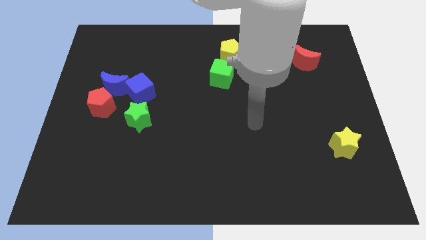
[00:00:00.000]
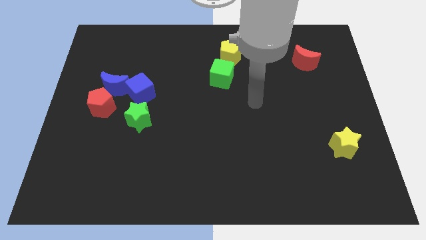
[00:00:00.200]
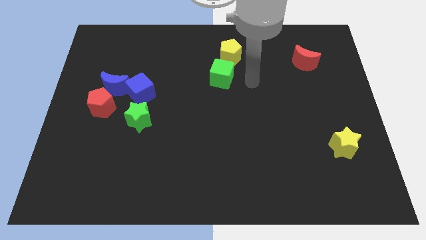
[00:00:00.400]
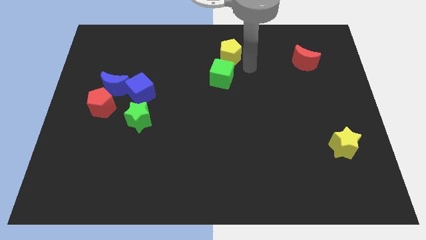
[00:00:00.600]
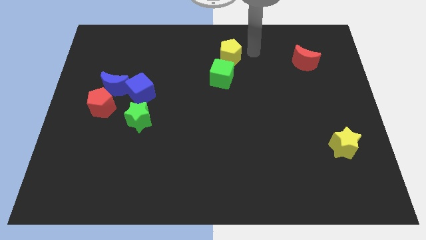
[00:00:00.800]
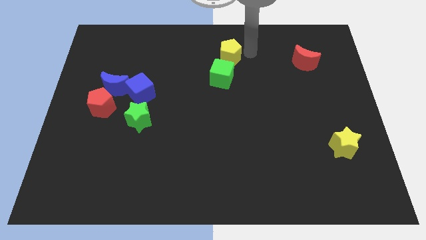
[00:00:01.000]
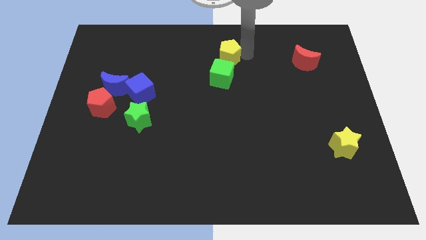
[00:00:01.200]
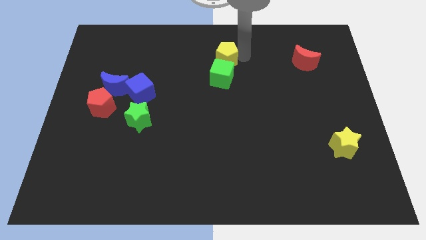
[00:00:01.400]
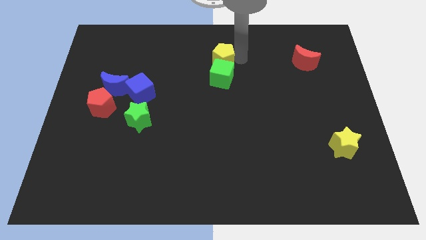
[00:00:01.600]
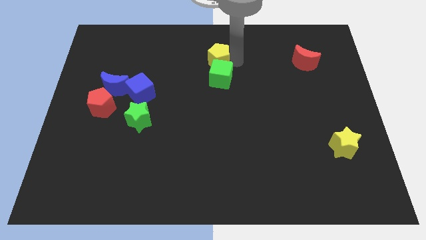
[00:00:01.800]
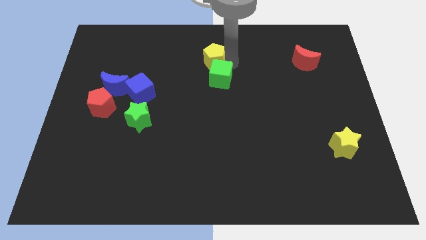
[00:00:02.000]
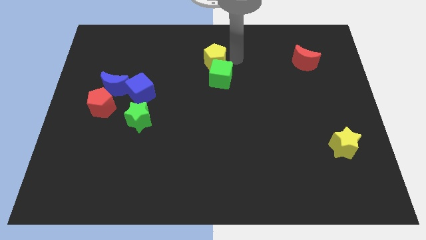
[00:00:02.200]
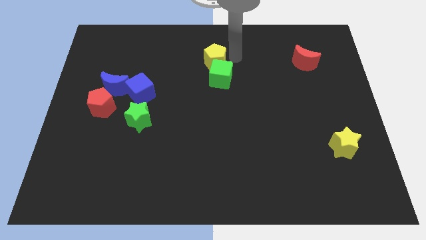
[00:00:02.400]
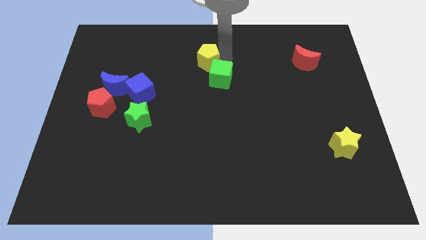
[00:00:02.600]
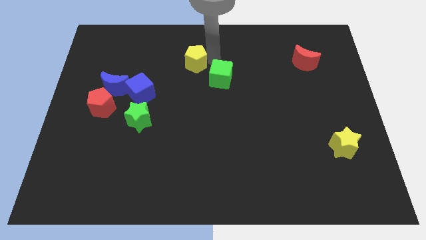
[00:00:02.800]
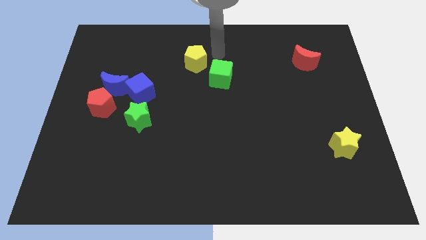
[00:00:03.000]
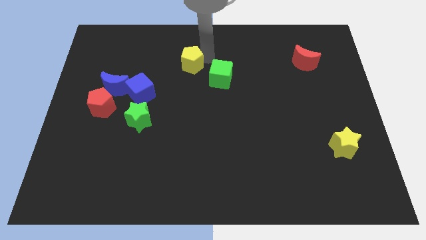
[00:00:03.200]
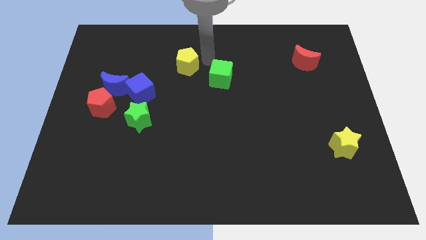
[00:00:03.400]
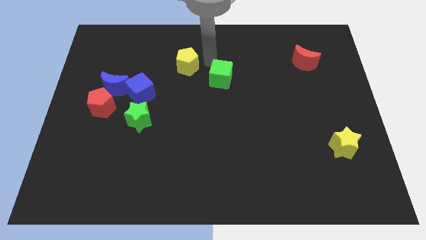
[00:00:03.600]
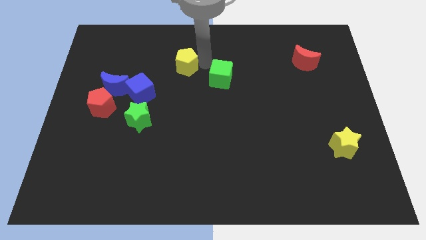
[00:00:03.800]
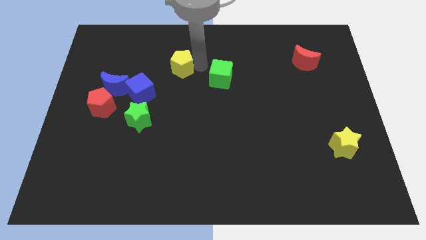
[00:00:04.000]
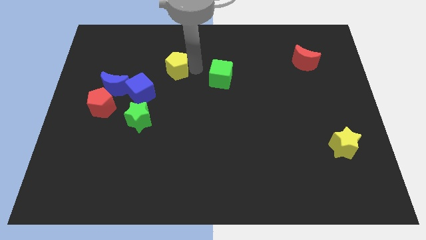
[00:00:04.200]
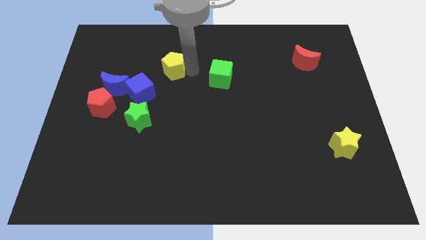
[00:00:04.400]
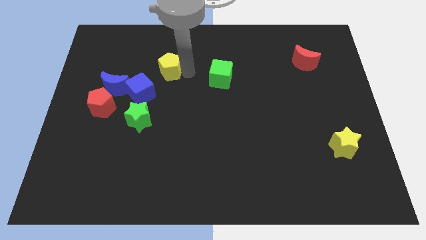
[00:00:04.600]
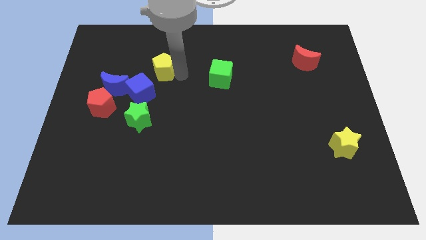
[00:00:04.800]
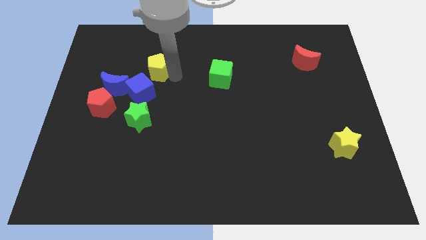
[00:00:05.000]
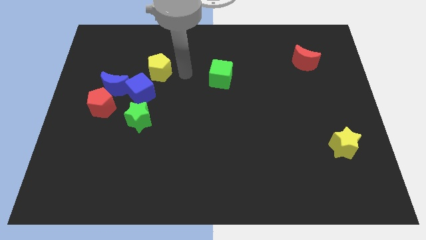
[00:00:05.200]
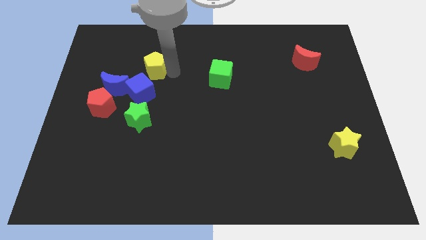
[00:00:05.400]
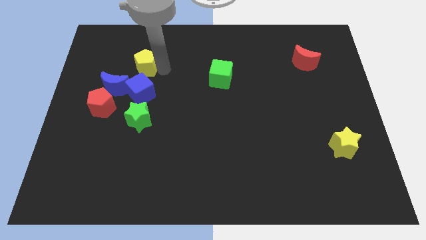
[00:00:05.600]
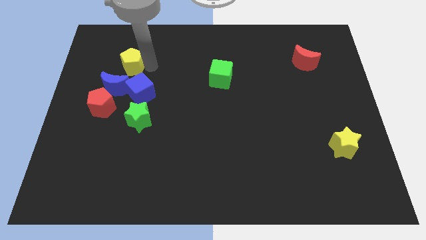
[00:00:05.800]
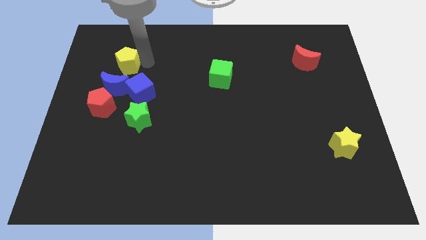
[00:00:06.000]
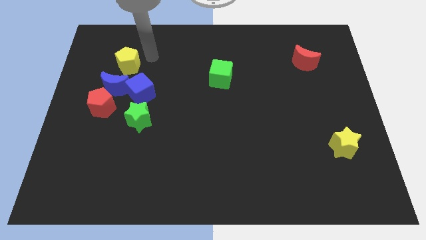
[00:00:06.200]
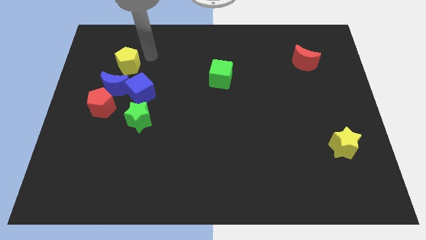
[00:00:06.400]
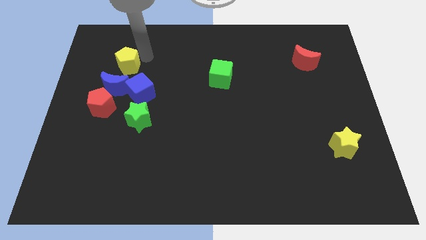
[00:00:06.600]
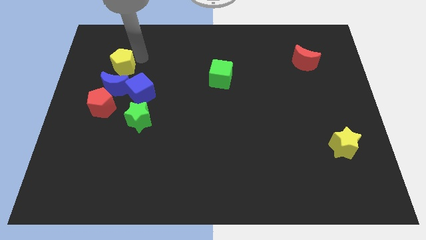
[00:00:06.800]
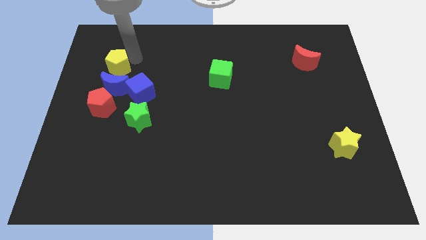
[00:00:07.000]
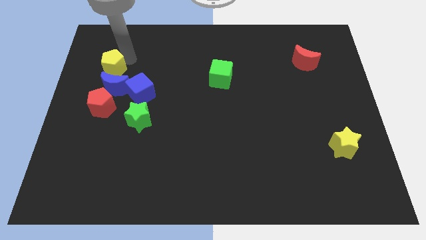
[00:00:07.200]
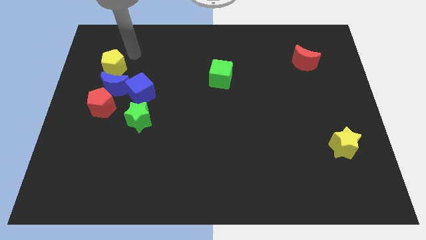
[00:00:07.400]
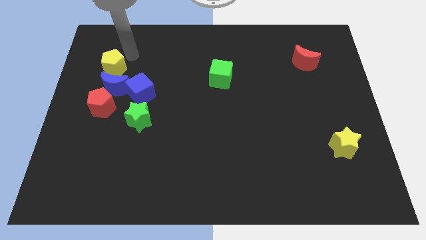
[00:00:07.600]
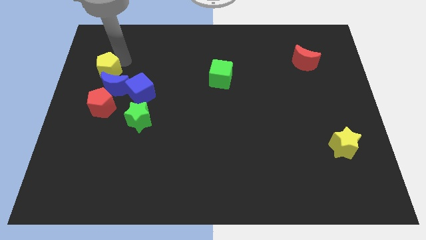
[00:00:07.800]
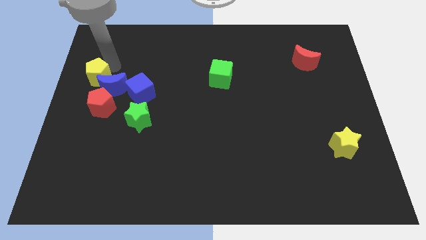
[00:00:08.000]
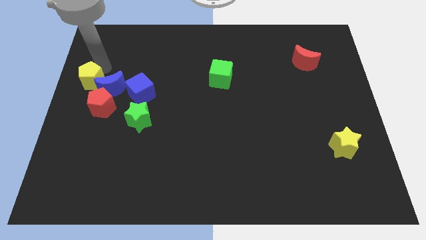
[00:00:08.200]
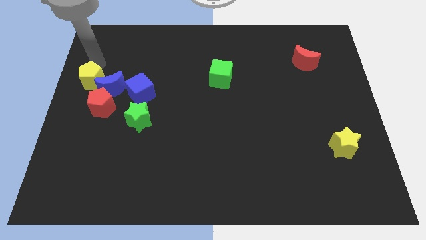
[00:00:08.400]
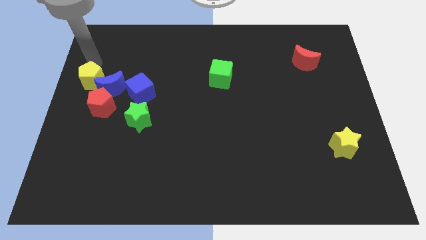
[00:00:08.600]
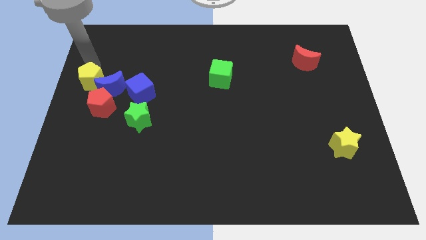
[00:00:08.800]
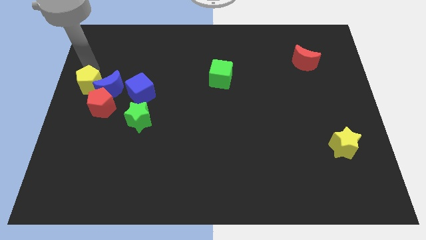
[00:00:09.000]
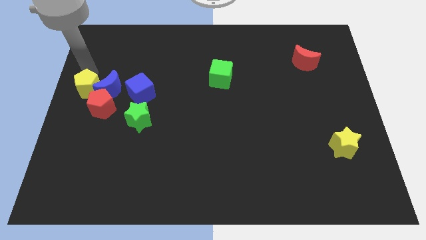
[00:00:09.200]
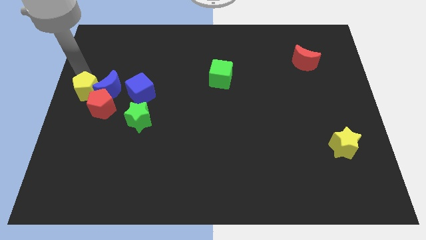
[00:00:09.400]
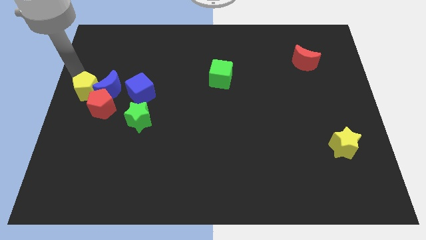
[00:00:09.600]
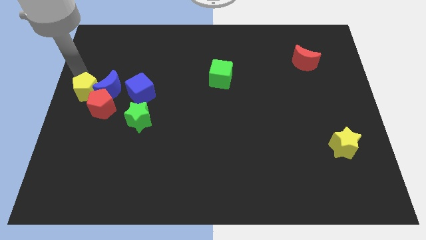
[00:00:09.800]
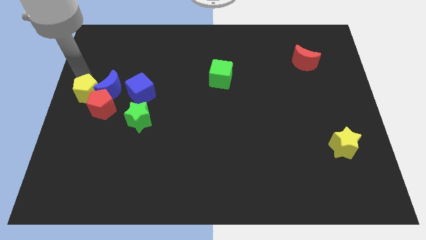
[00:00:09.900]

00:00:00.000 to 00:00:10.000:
put the yellow pentagon to the red pentagon

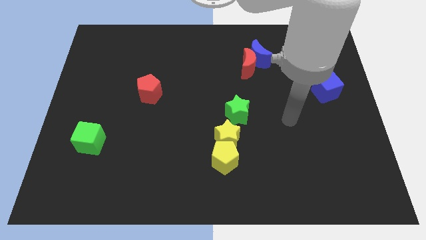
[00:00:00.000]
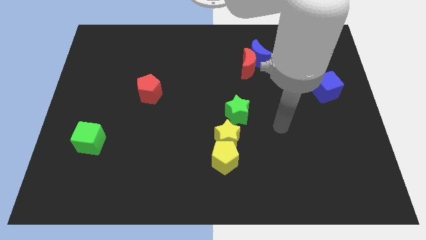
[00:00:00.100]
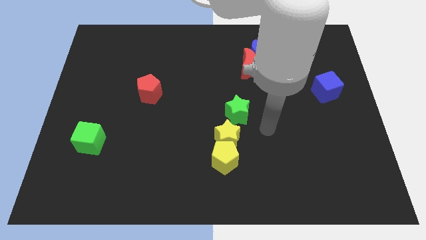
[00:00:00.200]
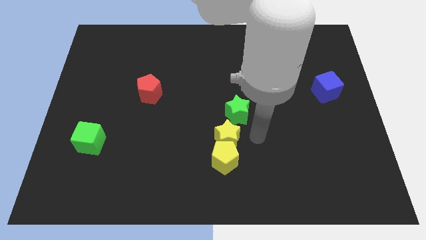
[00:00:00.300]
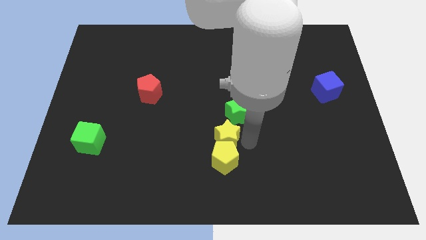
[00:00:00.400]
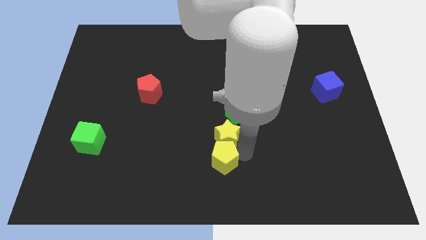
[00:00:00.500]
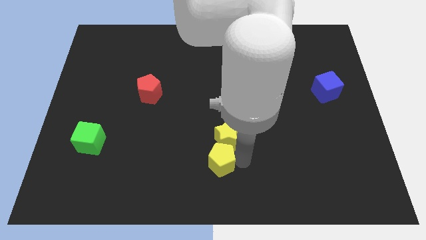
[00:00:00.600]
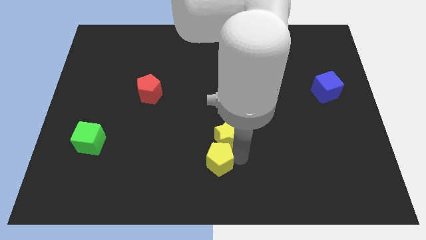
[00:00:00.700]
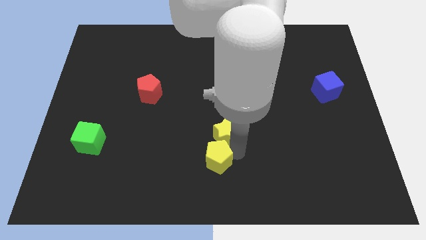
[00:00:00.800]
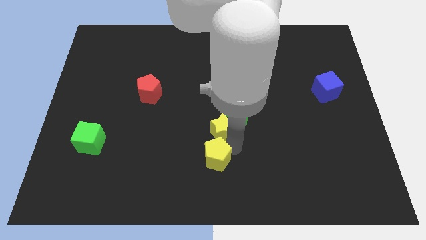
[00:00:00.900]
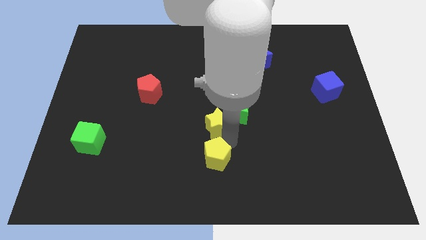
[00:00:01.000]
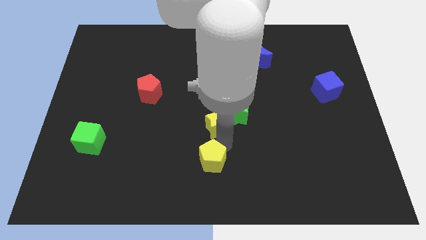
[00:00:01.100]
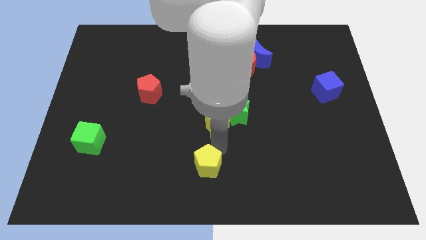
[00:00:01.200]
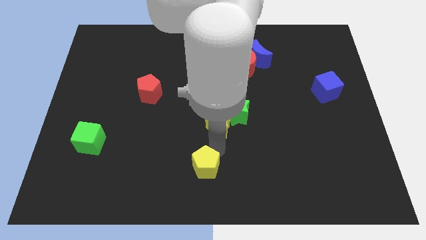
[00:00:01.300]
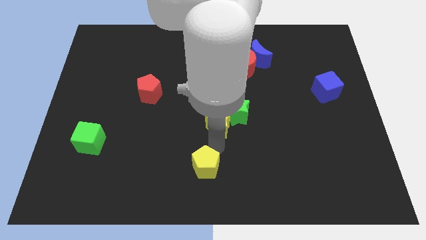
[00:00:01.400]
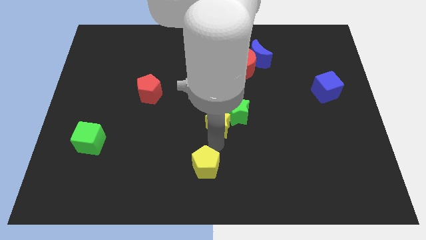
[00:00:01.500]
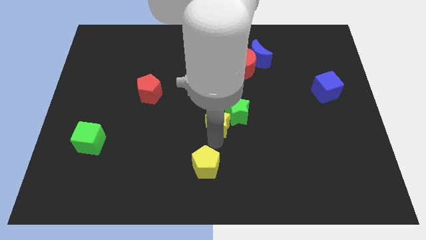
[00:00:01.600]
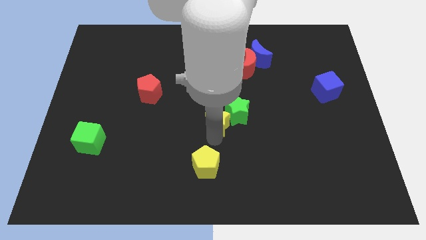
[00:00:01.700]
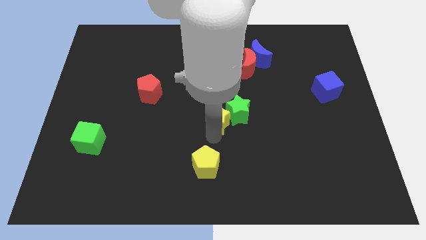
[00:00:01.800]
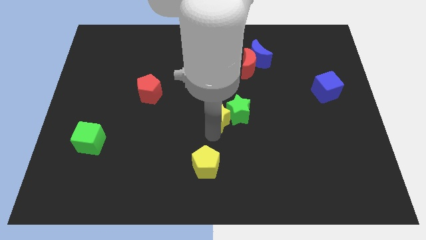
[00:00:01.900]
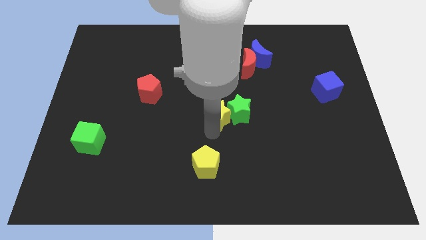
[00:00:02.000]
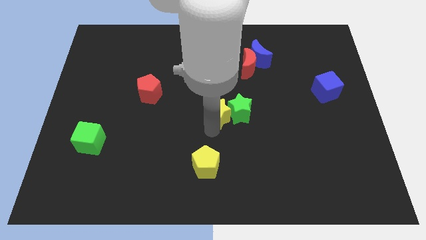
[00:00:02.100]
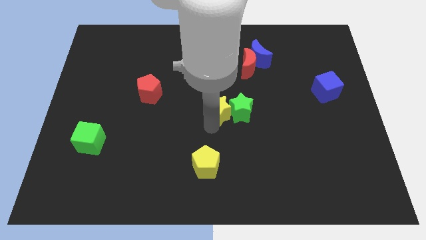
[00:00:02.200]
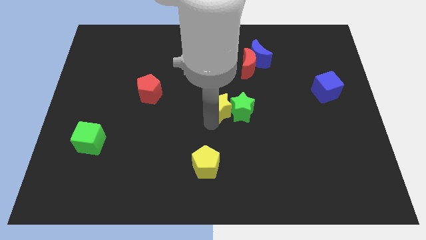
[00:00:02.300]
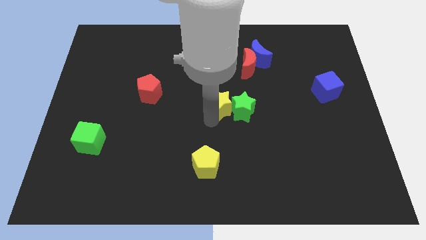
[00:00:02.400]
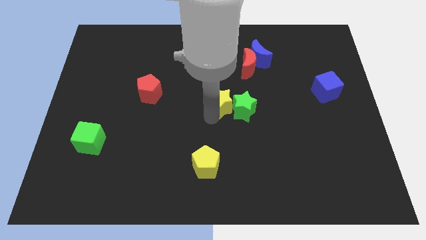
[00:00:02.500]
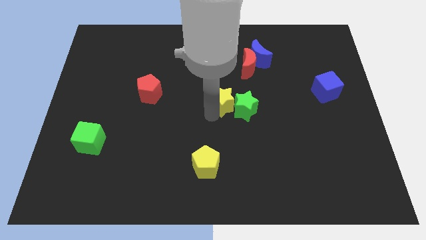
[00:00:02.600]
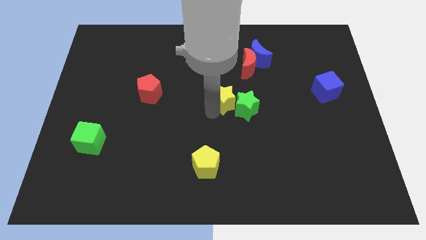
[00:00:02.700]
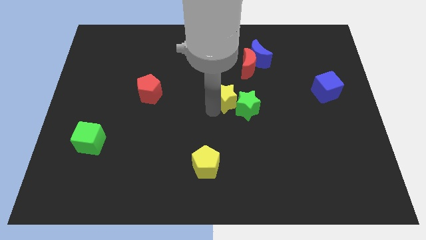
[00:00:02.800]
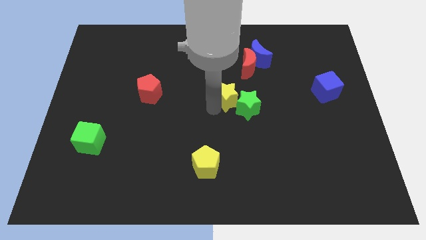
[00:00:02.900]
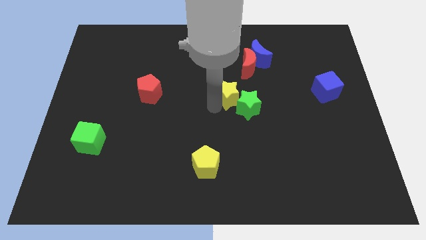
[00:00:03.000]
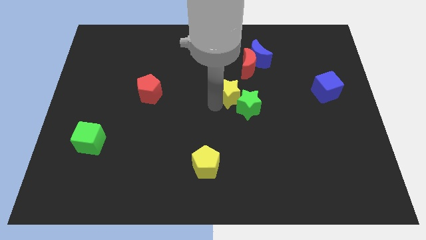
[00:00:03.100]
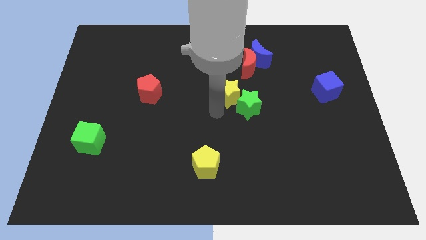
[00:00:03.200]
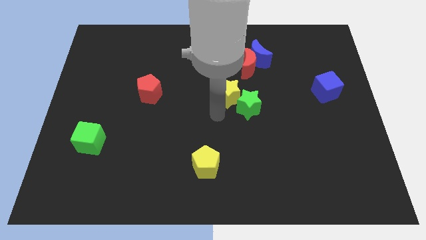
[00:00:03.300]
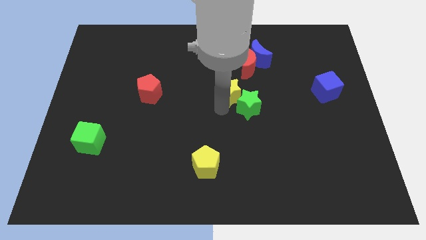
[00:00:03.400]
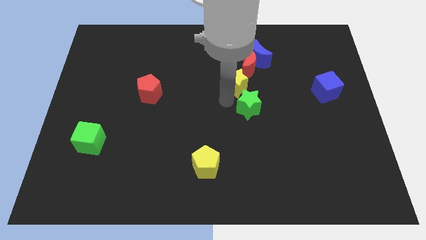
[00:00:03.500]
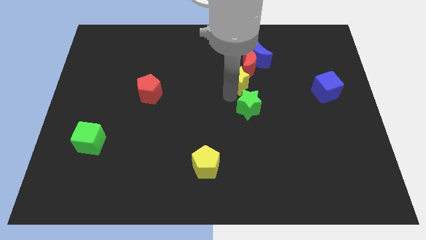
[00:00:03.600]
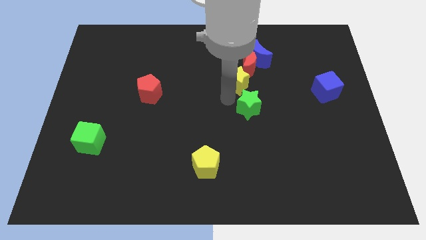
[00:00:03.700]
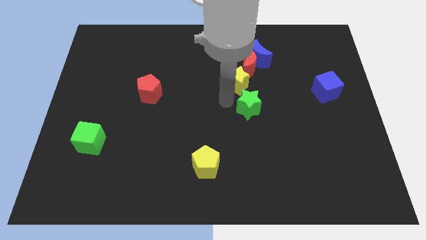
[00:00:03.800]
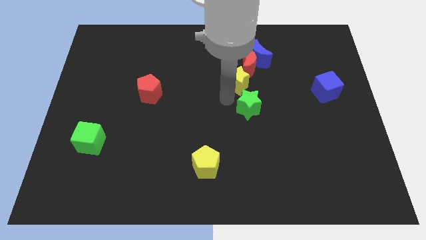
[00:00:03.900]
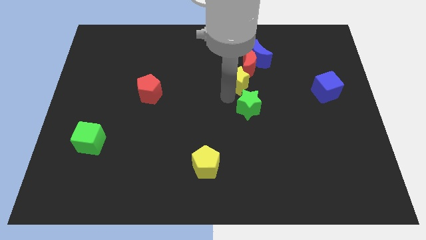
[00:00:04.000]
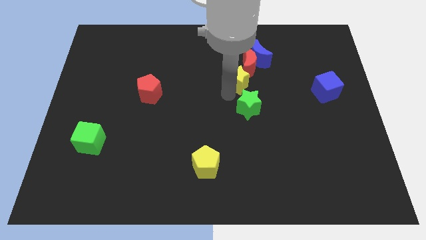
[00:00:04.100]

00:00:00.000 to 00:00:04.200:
move the yellow star towards the red moon
